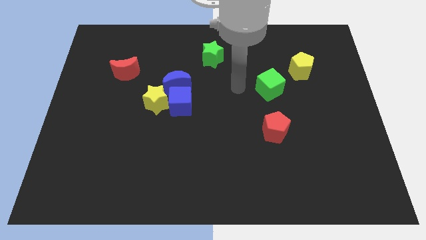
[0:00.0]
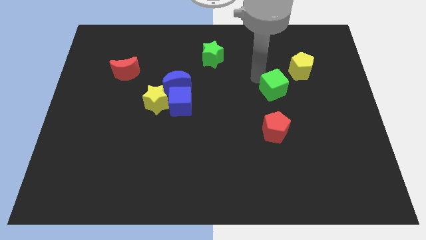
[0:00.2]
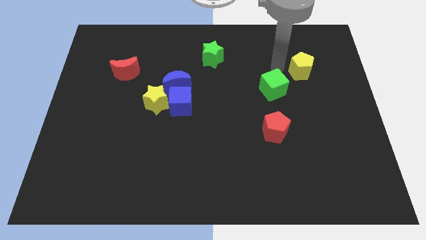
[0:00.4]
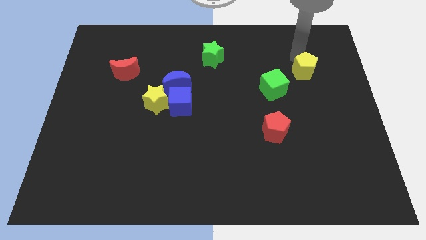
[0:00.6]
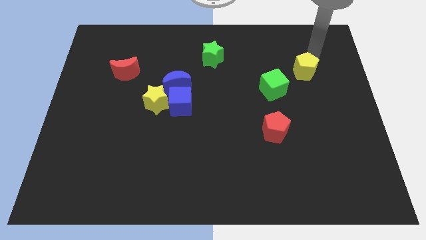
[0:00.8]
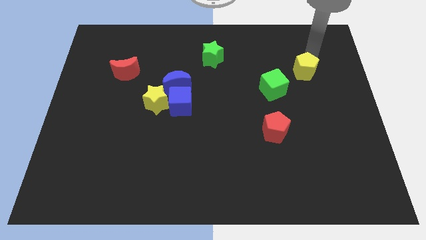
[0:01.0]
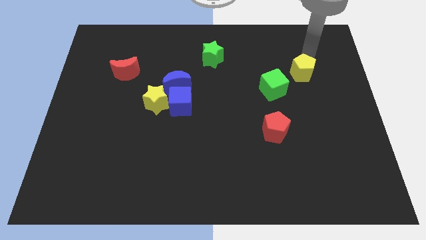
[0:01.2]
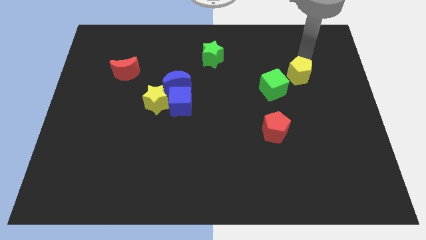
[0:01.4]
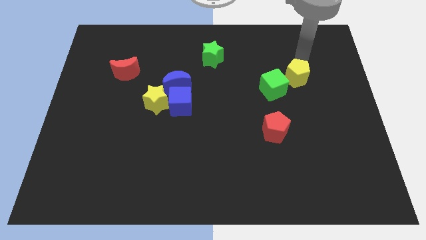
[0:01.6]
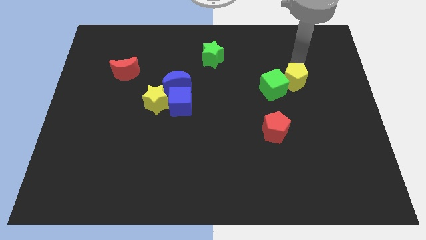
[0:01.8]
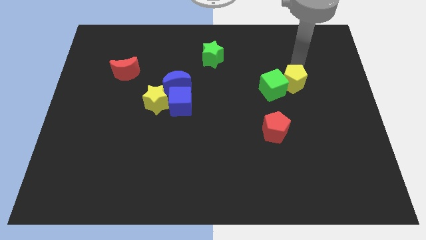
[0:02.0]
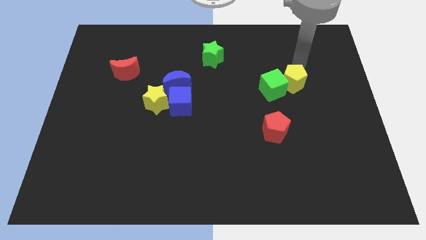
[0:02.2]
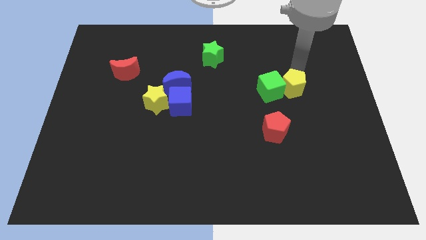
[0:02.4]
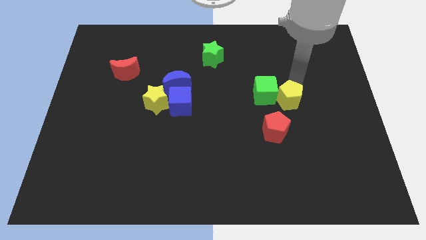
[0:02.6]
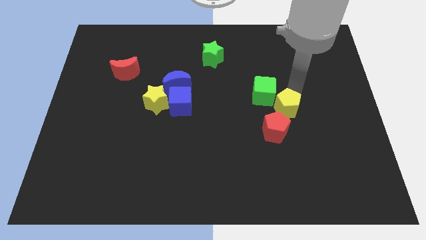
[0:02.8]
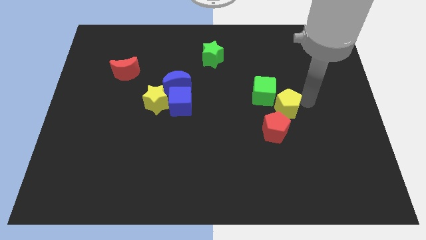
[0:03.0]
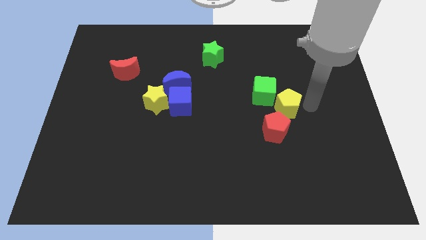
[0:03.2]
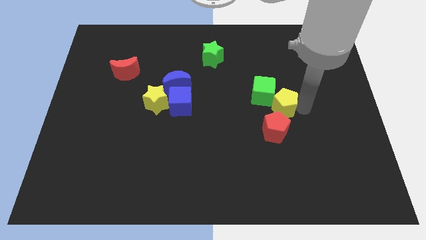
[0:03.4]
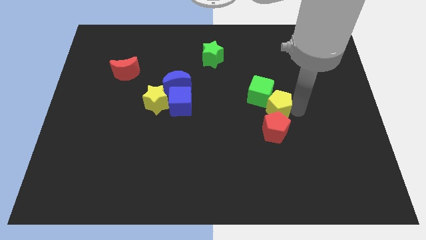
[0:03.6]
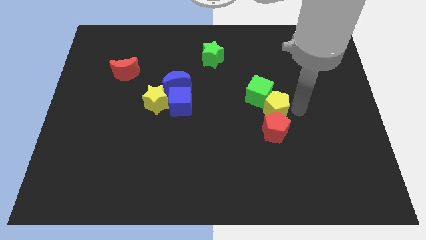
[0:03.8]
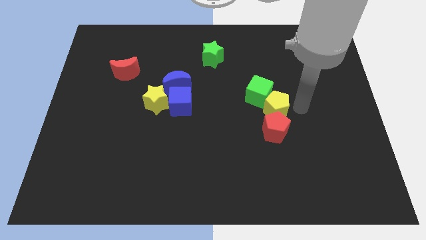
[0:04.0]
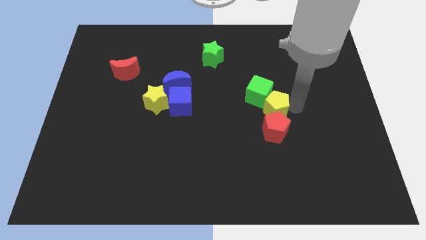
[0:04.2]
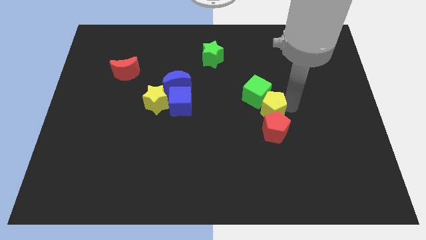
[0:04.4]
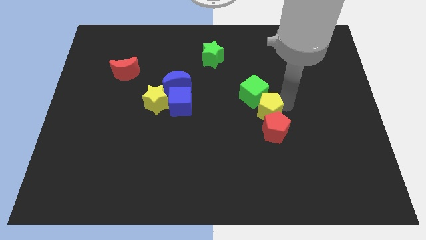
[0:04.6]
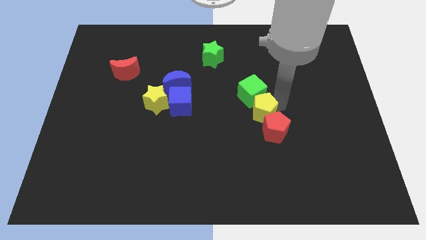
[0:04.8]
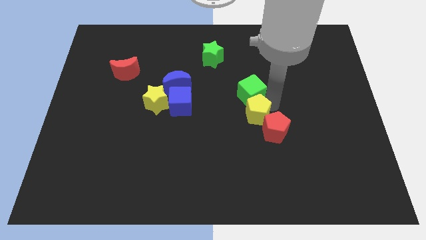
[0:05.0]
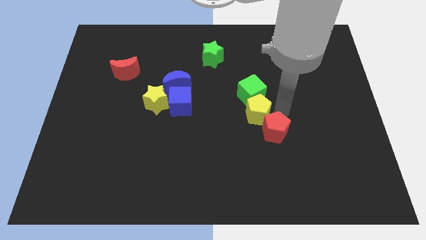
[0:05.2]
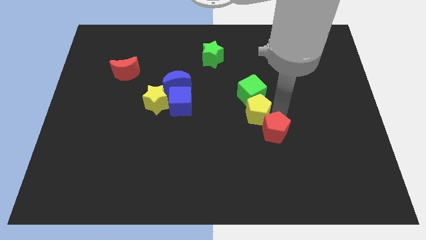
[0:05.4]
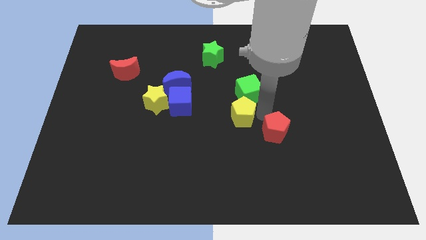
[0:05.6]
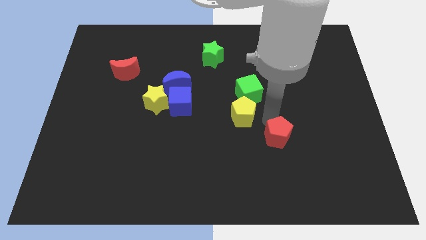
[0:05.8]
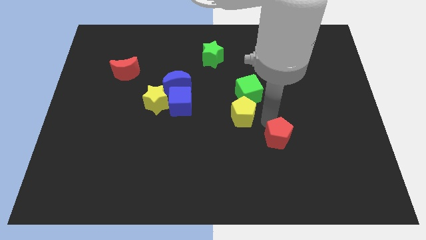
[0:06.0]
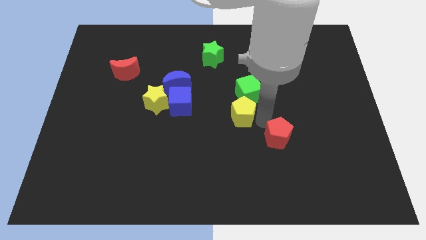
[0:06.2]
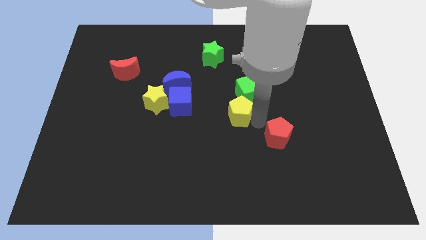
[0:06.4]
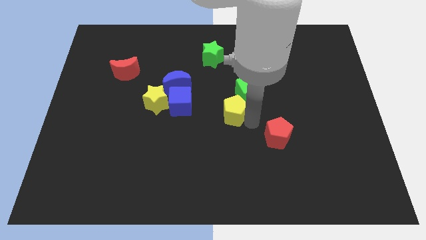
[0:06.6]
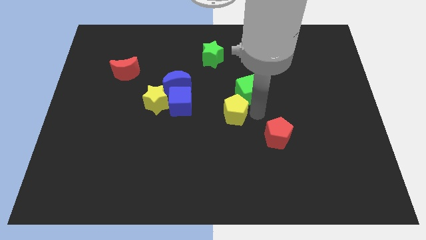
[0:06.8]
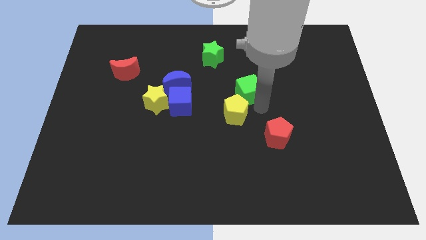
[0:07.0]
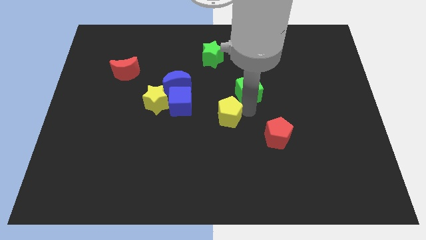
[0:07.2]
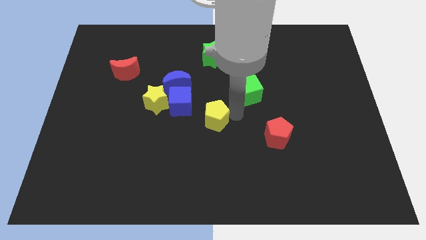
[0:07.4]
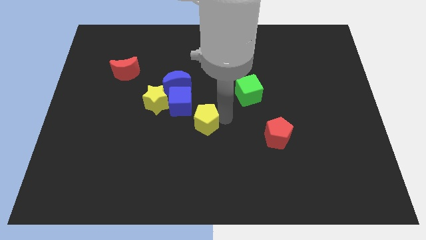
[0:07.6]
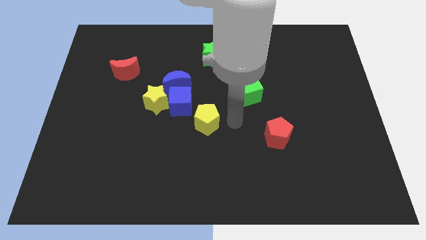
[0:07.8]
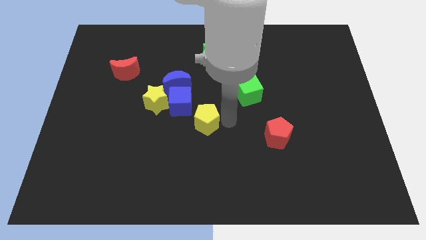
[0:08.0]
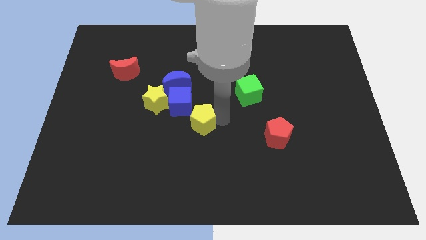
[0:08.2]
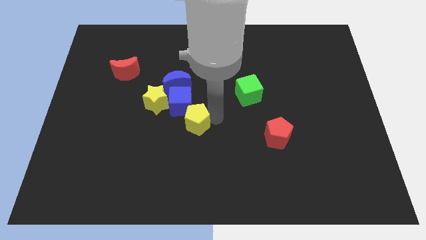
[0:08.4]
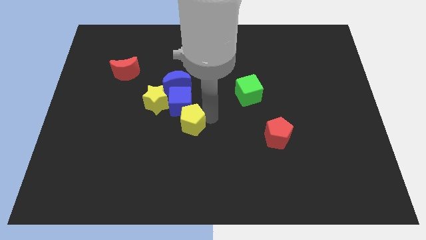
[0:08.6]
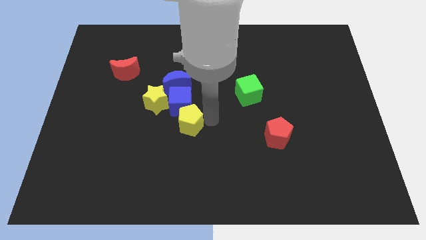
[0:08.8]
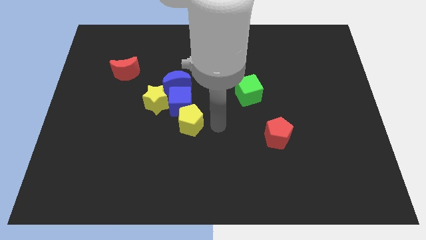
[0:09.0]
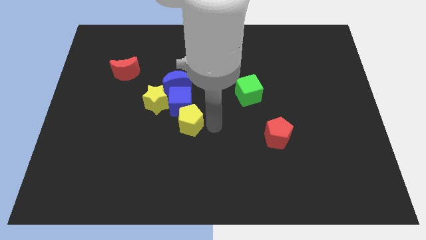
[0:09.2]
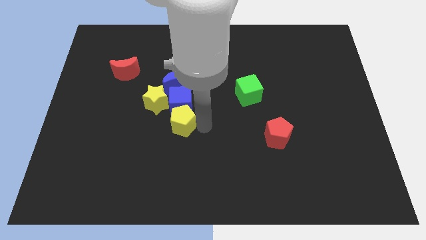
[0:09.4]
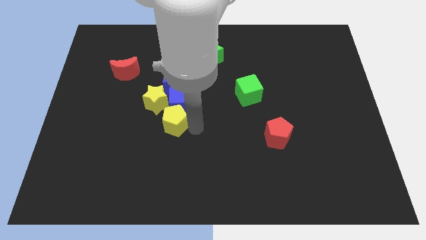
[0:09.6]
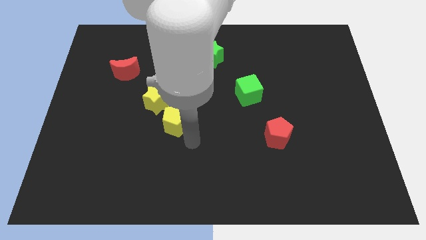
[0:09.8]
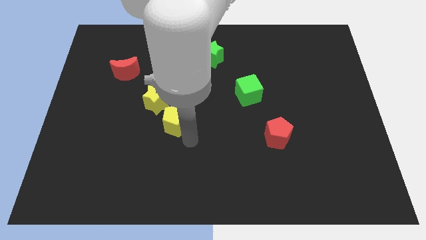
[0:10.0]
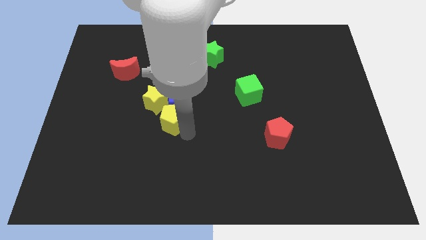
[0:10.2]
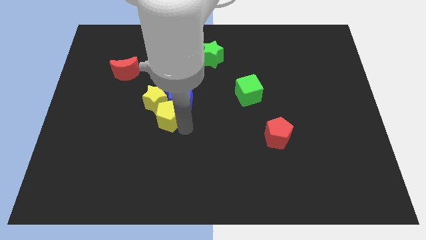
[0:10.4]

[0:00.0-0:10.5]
slide the yellow pentagon towards the yellow star
